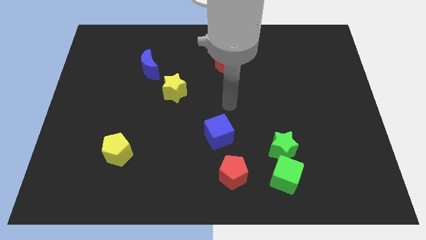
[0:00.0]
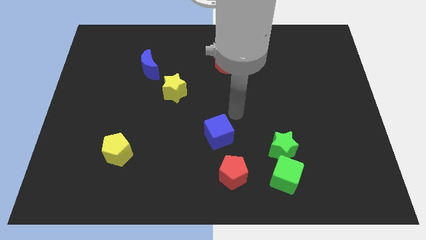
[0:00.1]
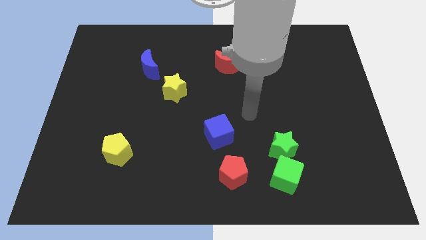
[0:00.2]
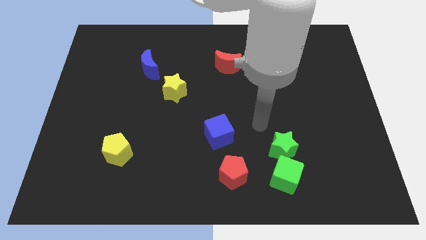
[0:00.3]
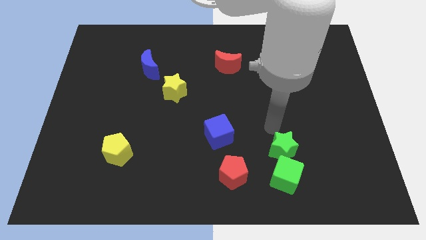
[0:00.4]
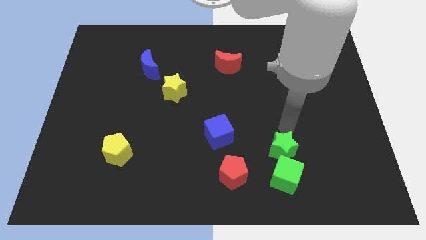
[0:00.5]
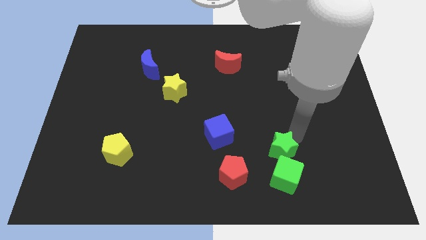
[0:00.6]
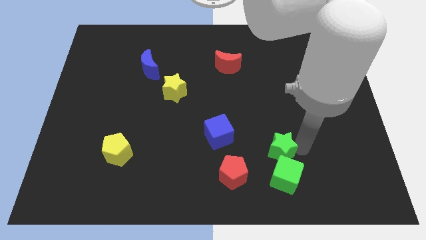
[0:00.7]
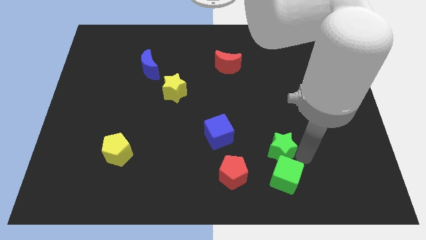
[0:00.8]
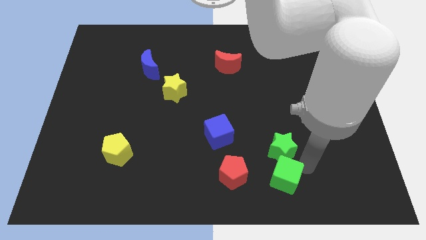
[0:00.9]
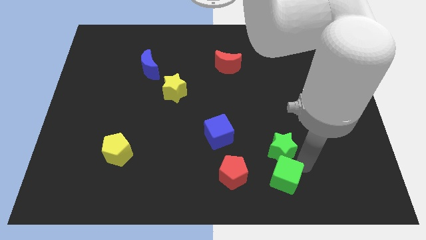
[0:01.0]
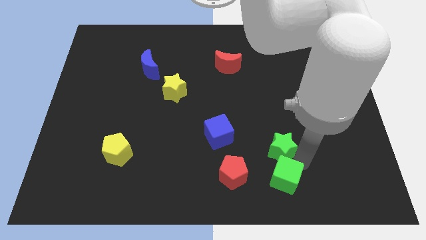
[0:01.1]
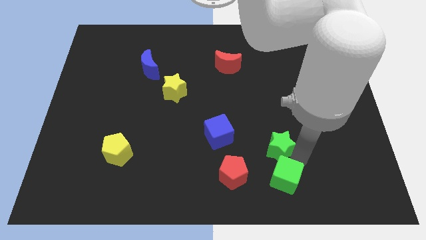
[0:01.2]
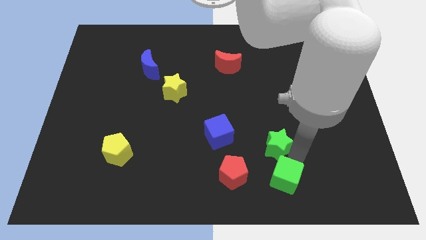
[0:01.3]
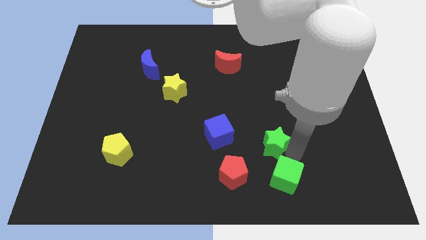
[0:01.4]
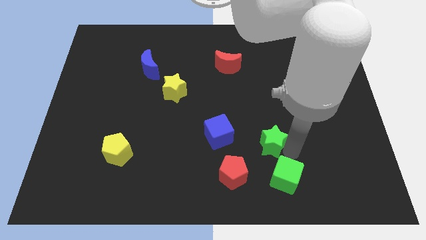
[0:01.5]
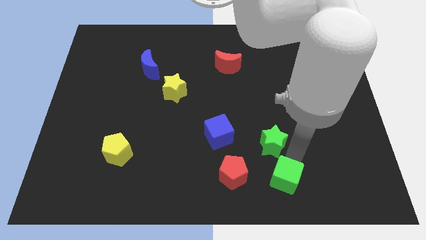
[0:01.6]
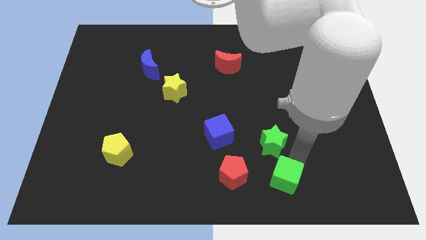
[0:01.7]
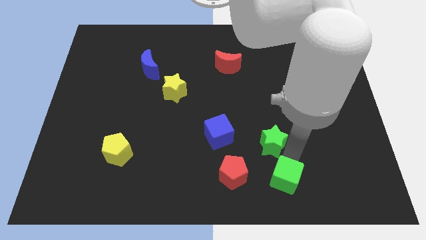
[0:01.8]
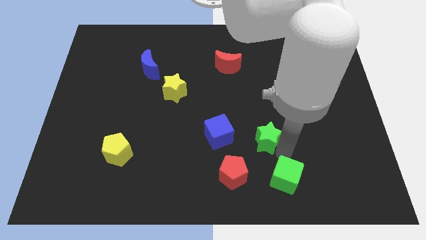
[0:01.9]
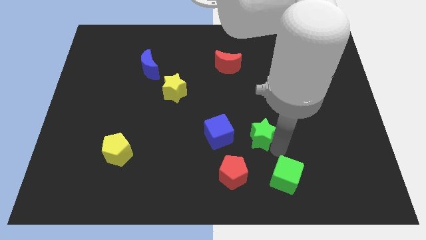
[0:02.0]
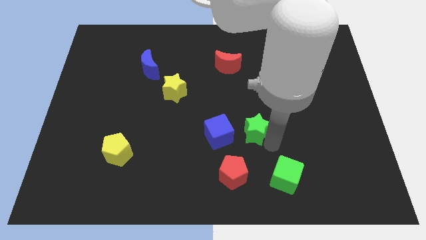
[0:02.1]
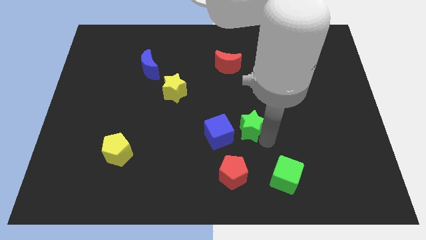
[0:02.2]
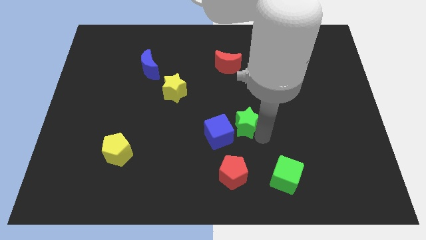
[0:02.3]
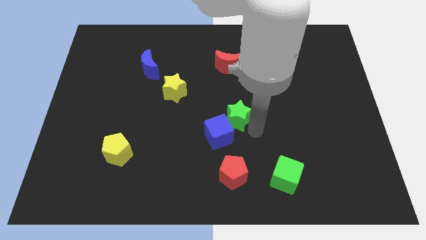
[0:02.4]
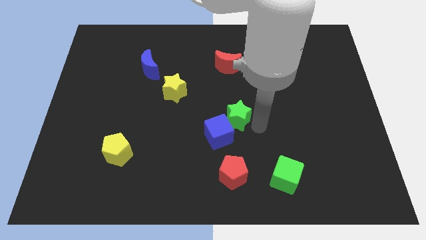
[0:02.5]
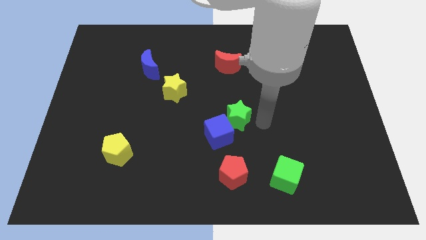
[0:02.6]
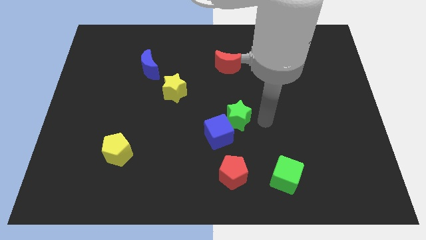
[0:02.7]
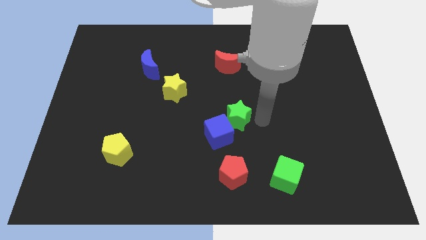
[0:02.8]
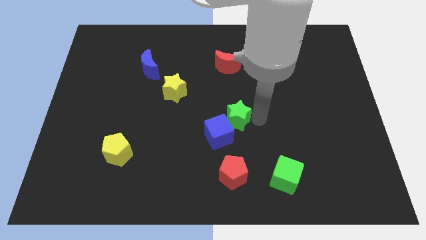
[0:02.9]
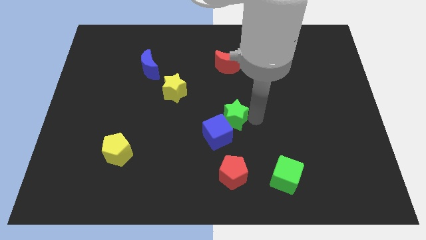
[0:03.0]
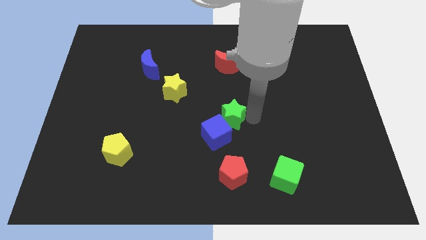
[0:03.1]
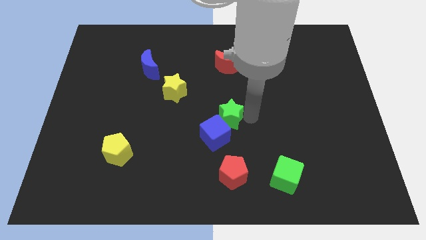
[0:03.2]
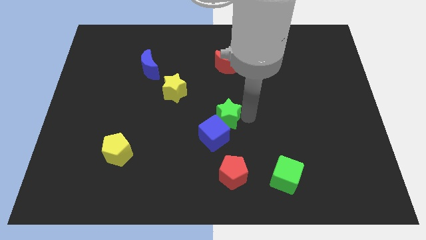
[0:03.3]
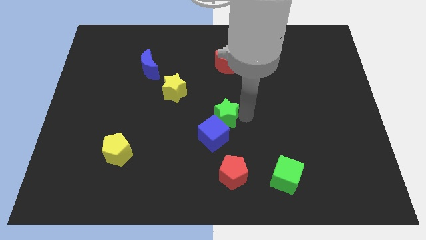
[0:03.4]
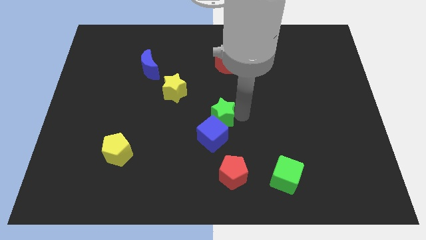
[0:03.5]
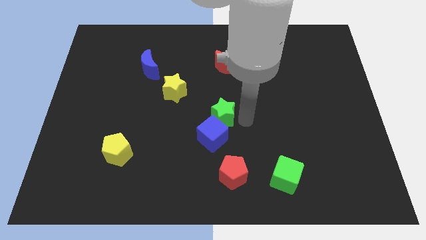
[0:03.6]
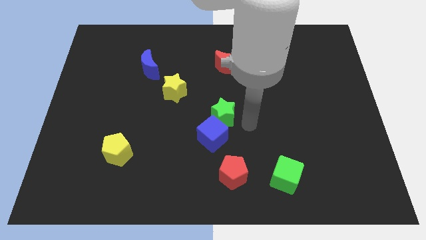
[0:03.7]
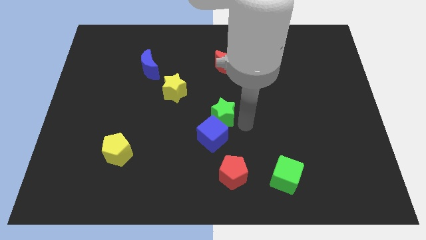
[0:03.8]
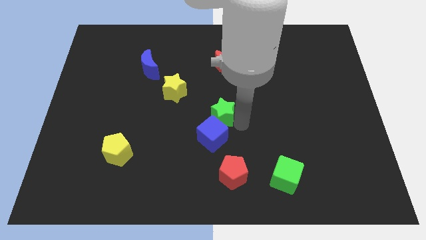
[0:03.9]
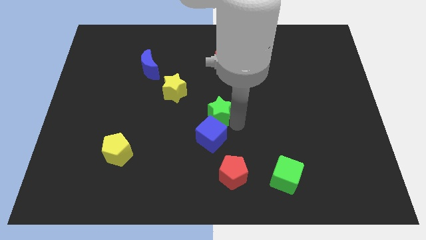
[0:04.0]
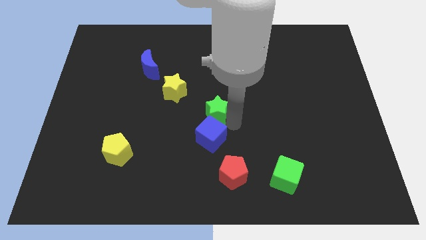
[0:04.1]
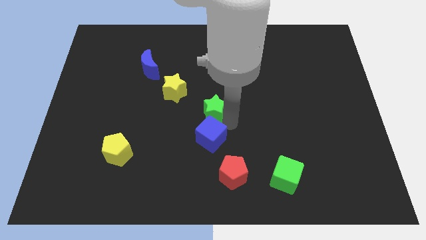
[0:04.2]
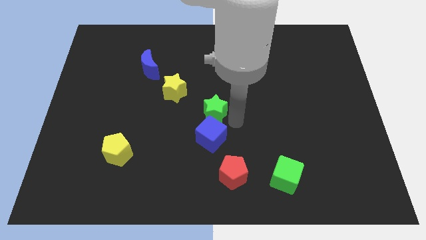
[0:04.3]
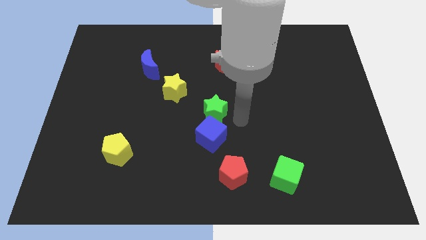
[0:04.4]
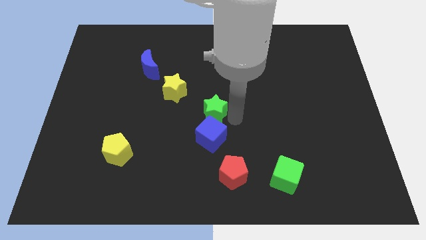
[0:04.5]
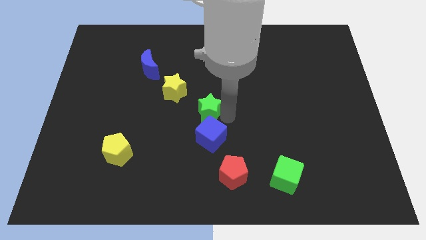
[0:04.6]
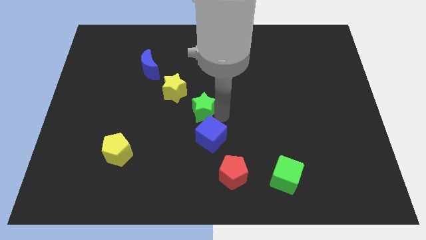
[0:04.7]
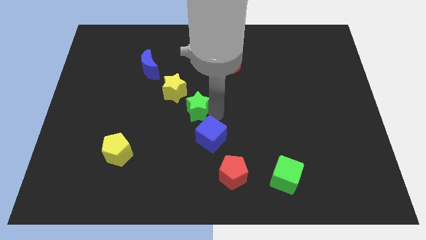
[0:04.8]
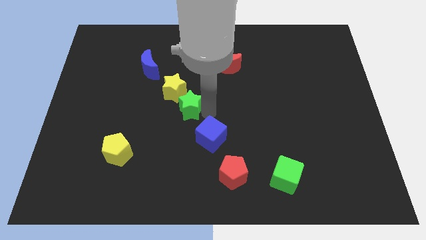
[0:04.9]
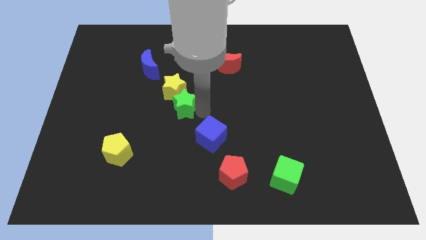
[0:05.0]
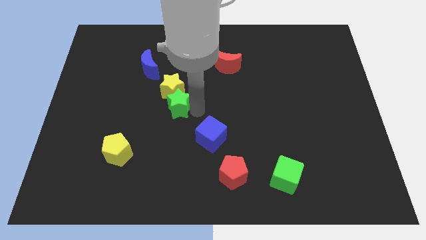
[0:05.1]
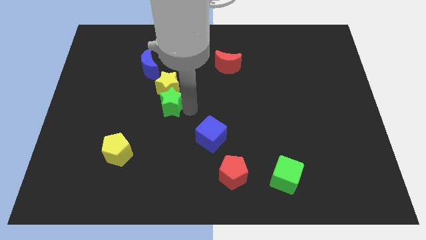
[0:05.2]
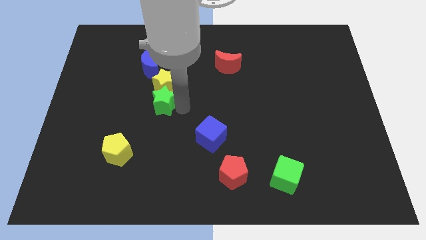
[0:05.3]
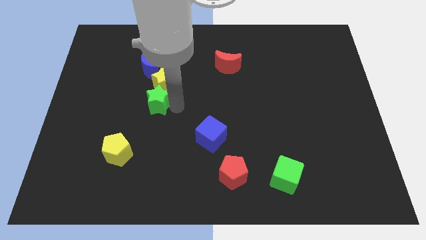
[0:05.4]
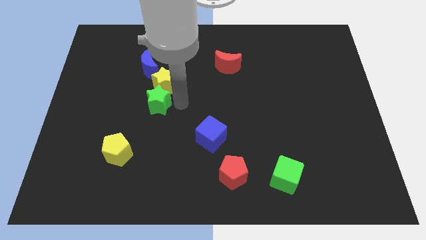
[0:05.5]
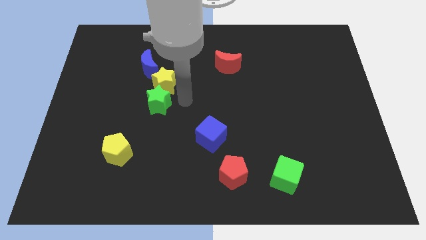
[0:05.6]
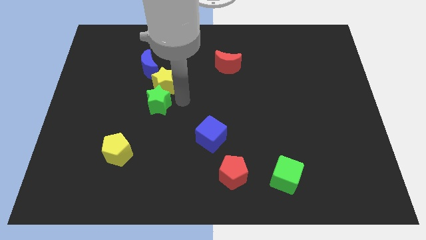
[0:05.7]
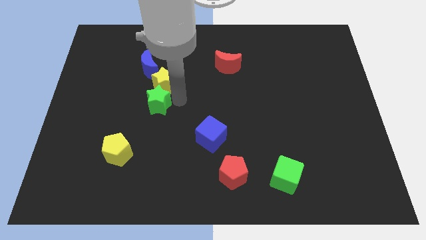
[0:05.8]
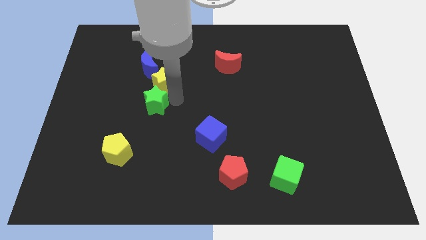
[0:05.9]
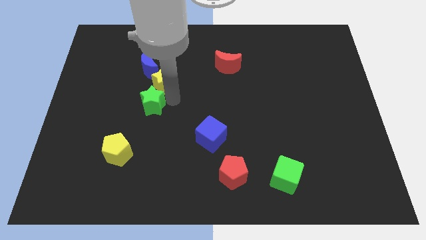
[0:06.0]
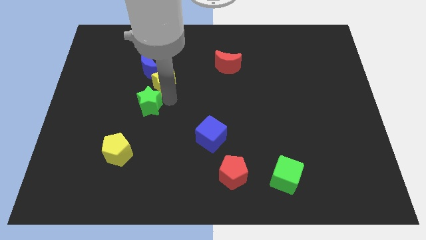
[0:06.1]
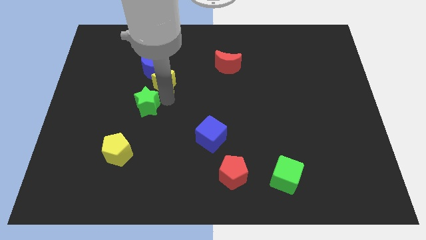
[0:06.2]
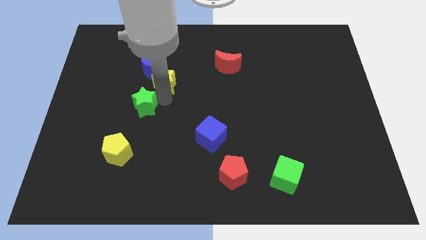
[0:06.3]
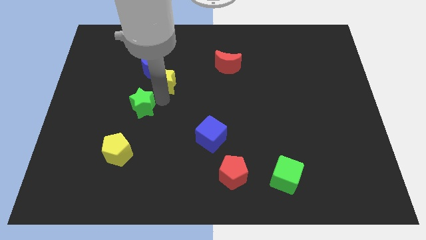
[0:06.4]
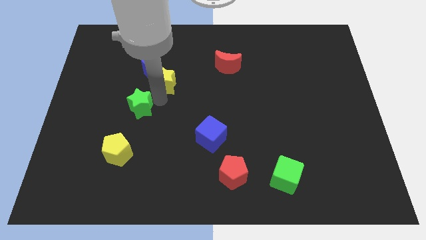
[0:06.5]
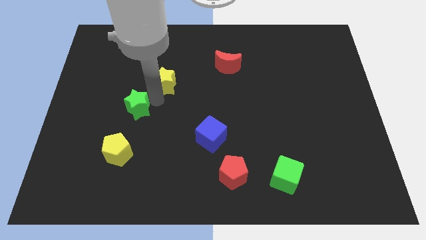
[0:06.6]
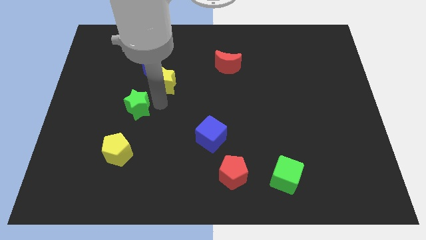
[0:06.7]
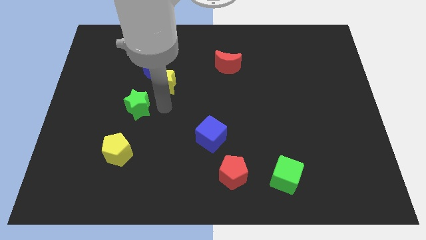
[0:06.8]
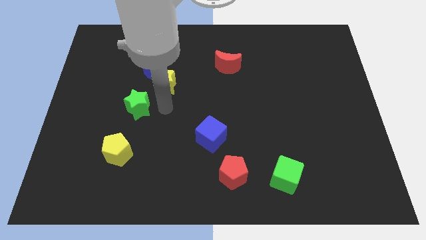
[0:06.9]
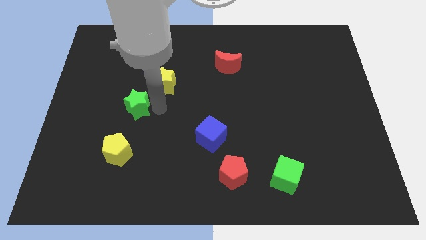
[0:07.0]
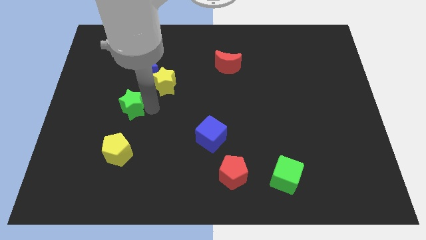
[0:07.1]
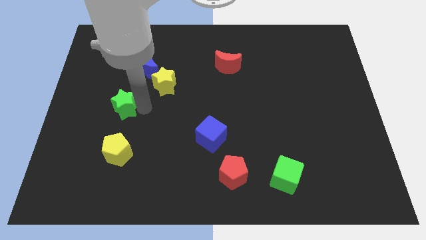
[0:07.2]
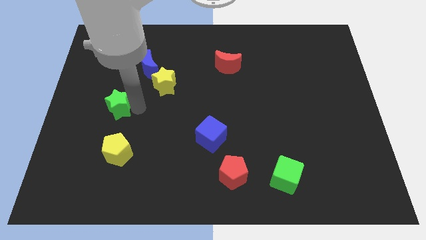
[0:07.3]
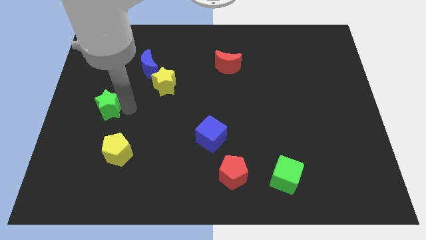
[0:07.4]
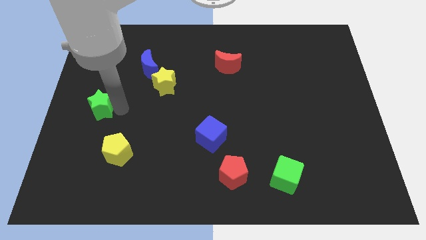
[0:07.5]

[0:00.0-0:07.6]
put the green star to the left side
